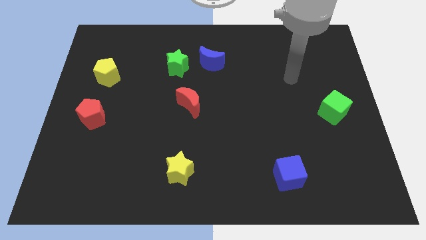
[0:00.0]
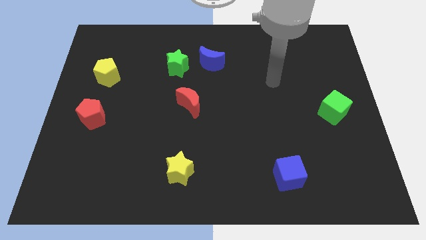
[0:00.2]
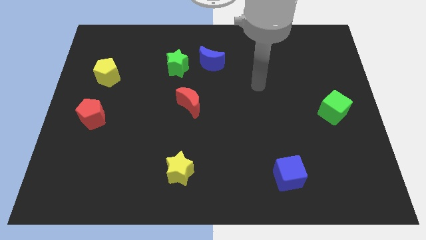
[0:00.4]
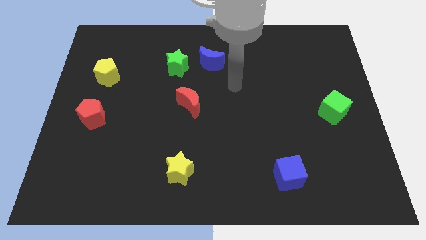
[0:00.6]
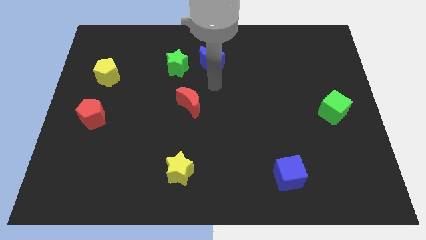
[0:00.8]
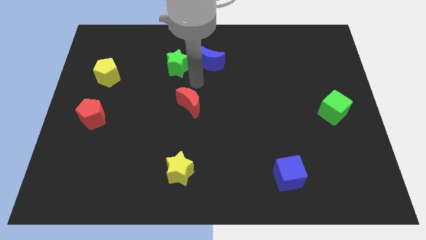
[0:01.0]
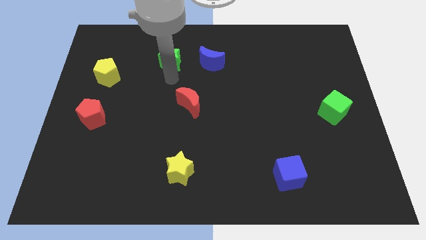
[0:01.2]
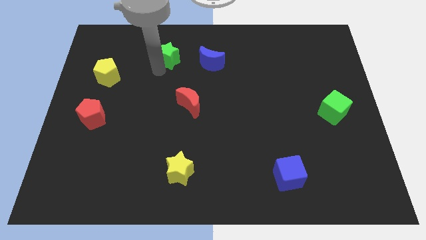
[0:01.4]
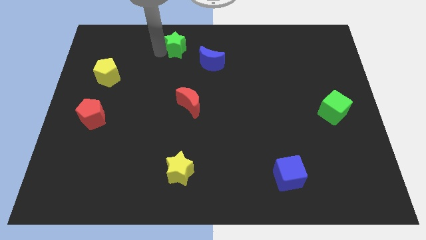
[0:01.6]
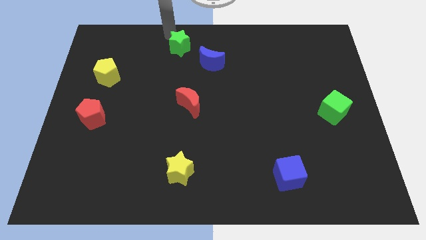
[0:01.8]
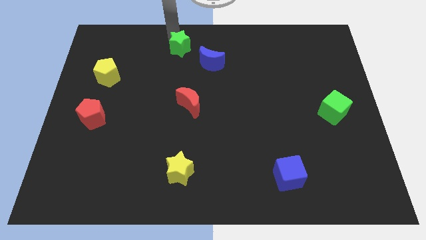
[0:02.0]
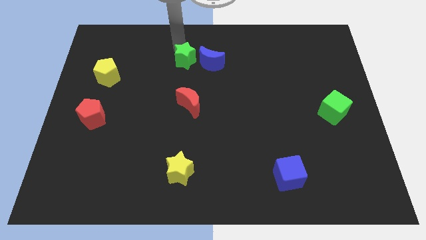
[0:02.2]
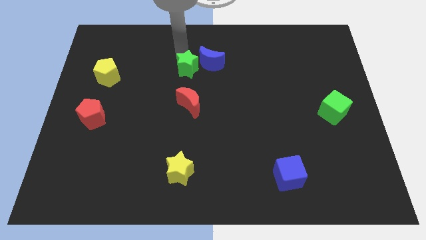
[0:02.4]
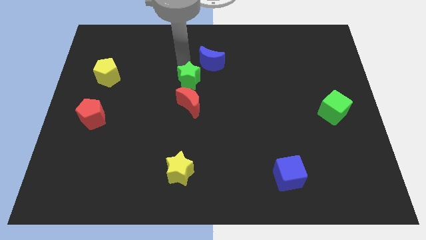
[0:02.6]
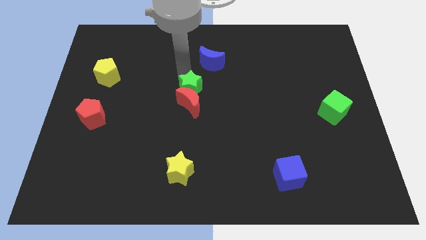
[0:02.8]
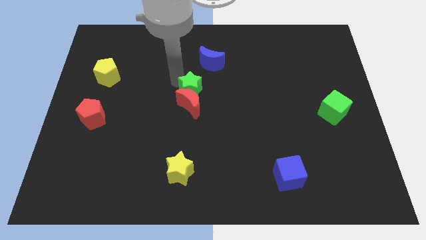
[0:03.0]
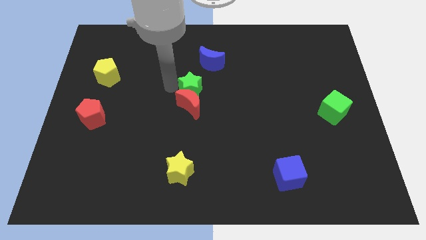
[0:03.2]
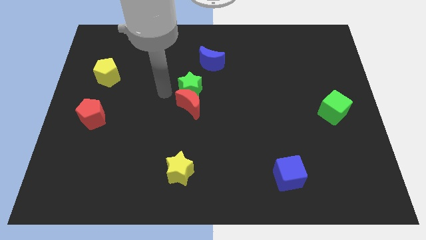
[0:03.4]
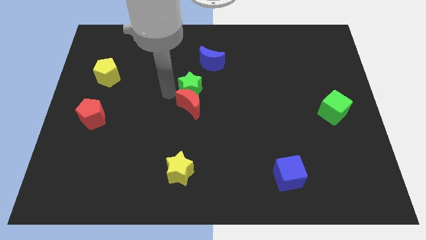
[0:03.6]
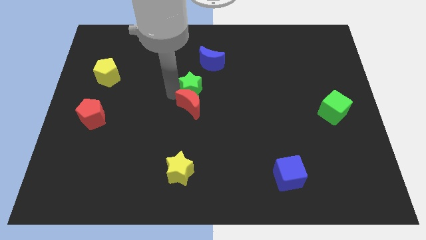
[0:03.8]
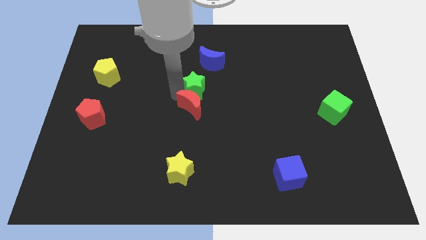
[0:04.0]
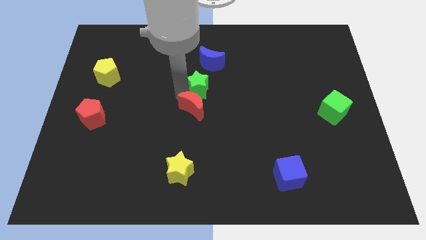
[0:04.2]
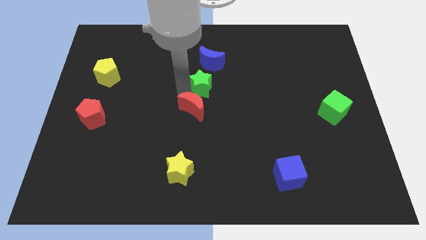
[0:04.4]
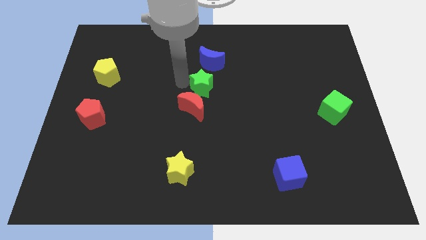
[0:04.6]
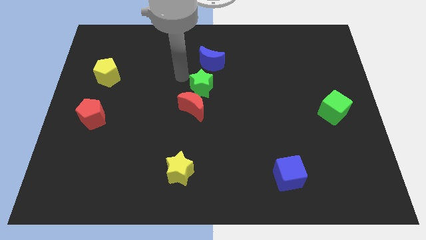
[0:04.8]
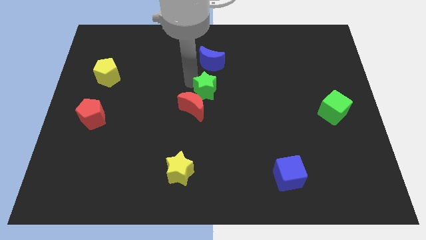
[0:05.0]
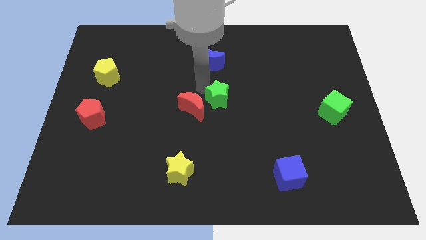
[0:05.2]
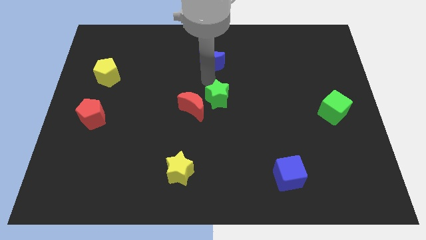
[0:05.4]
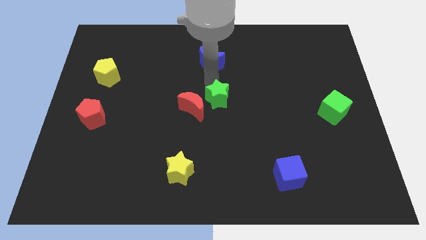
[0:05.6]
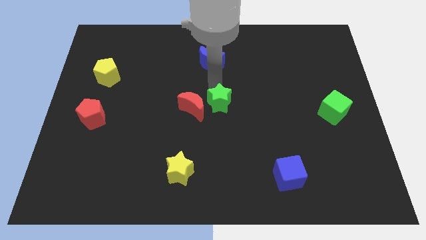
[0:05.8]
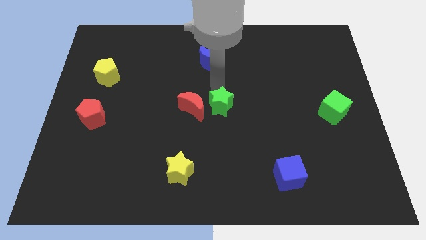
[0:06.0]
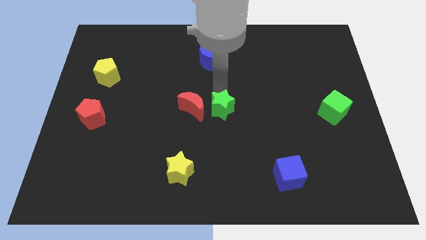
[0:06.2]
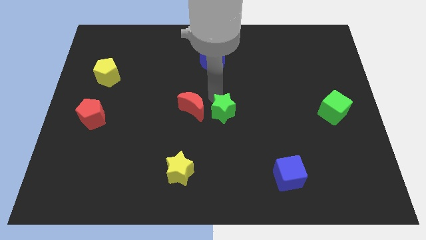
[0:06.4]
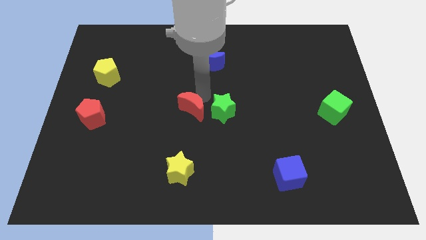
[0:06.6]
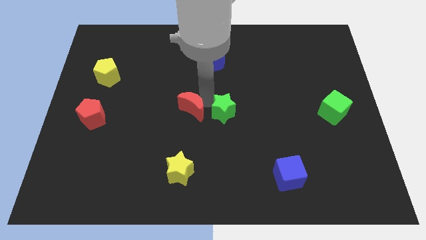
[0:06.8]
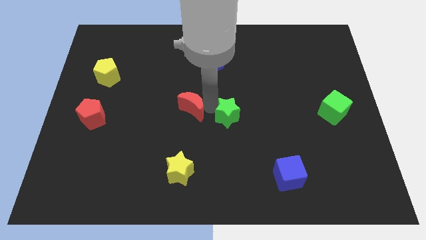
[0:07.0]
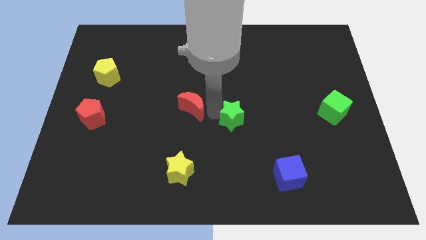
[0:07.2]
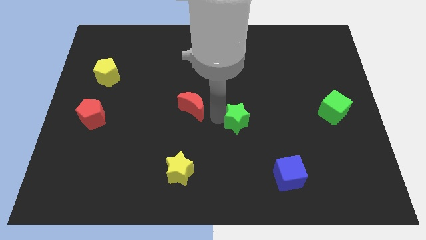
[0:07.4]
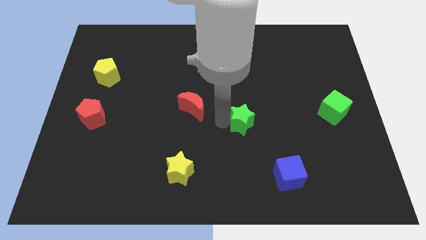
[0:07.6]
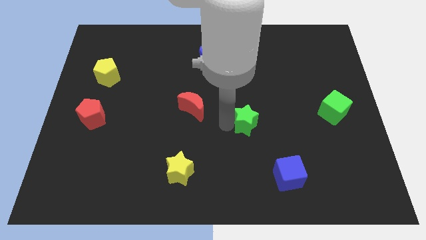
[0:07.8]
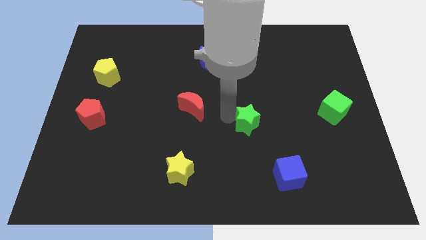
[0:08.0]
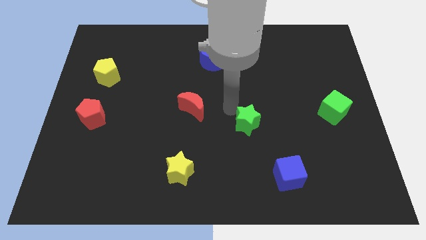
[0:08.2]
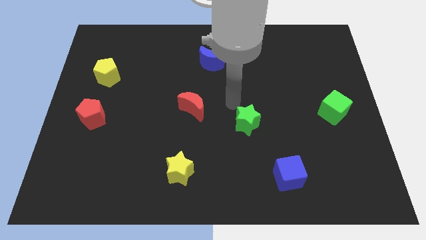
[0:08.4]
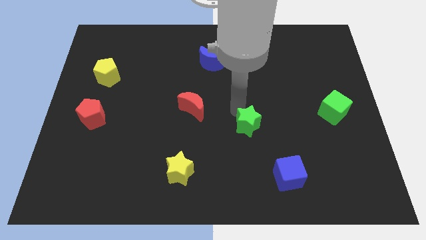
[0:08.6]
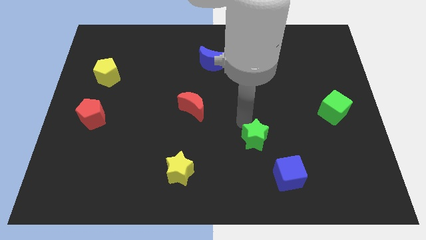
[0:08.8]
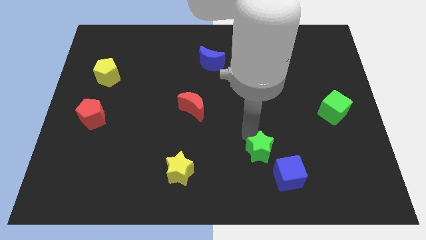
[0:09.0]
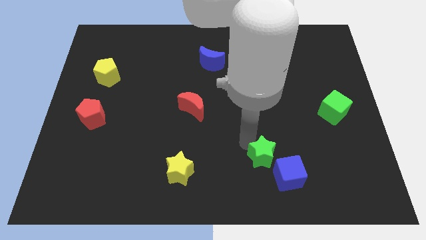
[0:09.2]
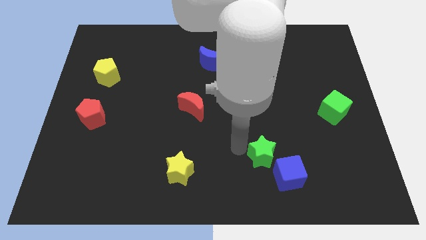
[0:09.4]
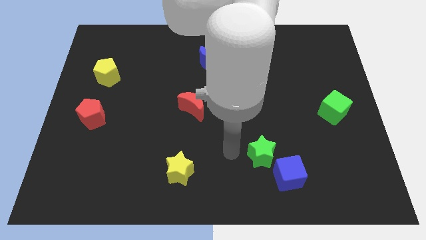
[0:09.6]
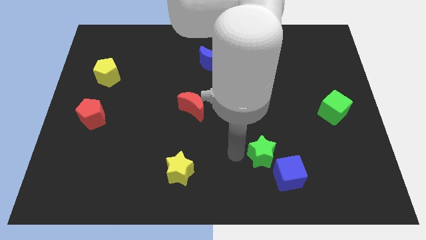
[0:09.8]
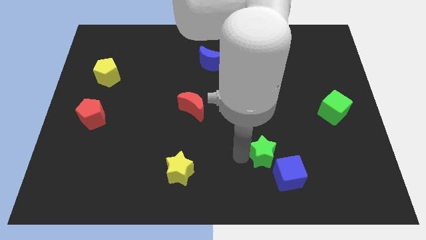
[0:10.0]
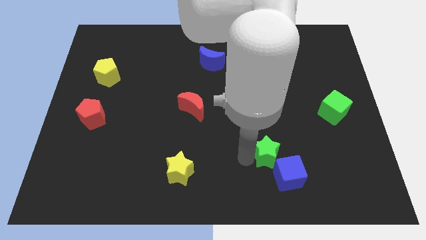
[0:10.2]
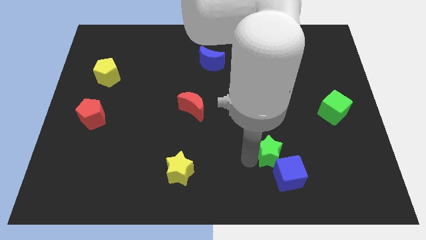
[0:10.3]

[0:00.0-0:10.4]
put the green star towards the blue cube

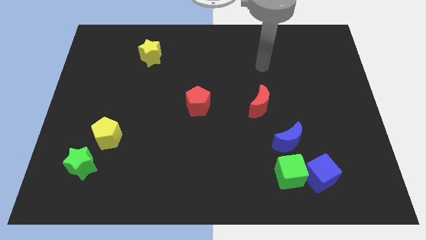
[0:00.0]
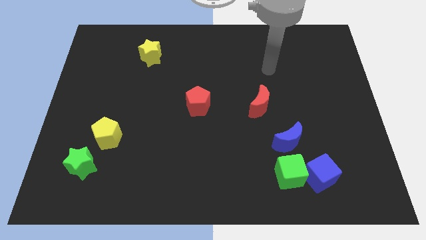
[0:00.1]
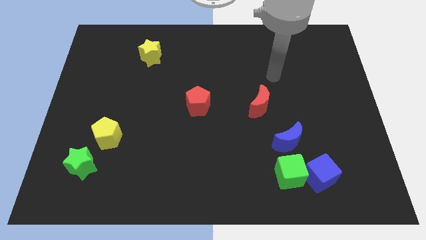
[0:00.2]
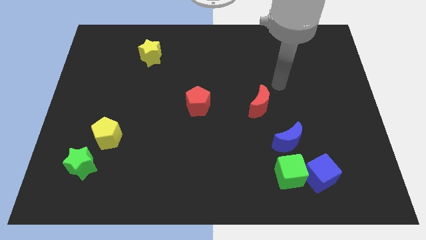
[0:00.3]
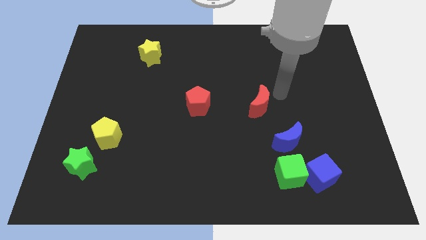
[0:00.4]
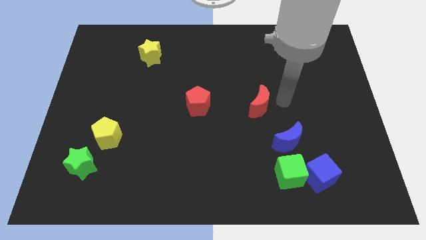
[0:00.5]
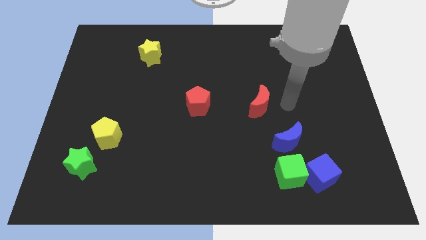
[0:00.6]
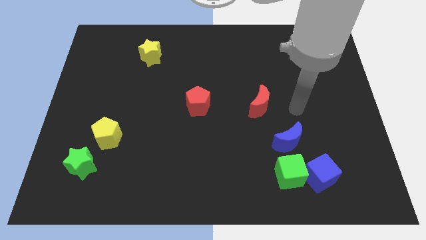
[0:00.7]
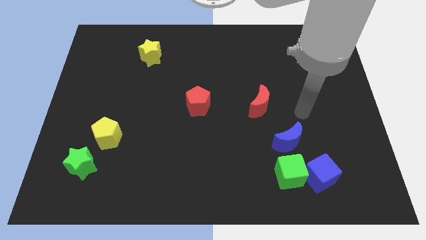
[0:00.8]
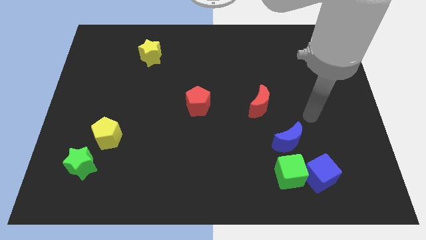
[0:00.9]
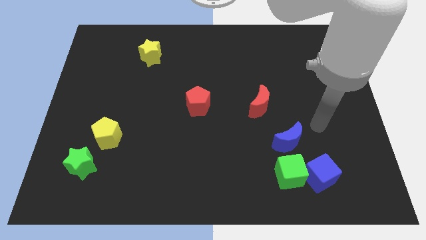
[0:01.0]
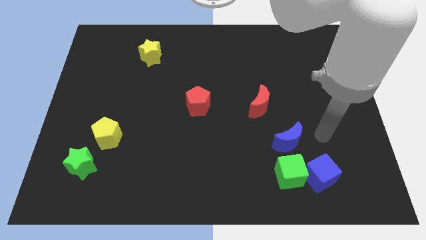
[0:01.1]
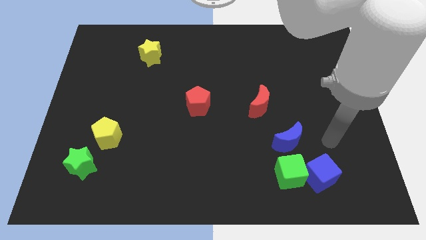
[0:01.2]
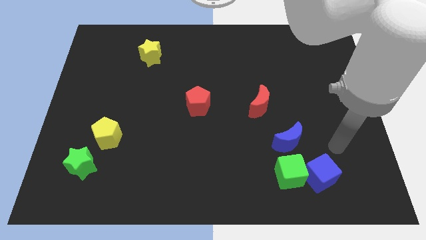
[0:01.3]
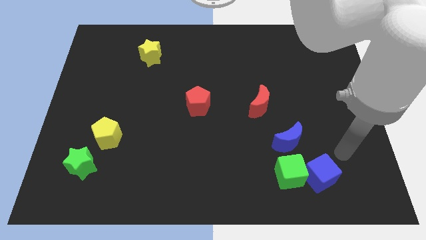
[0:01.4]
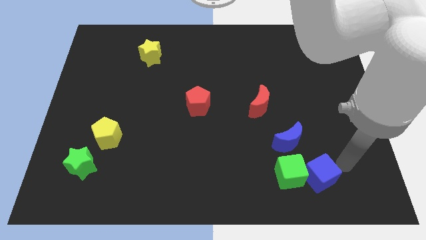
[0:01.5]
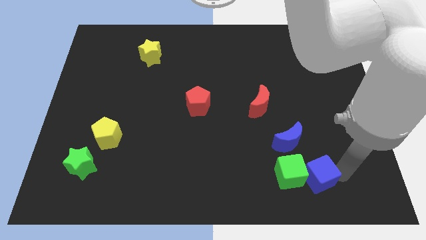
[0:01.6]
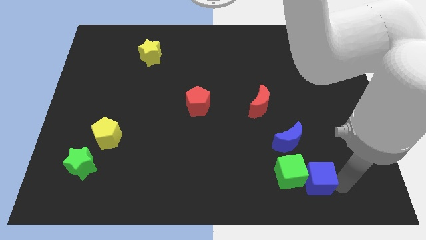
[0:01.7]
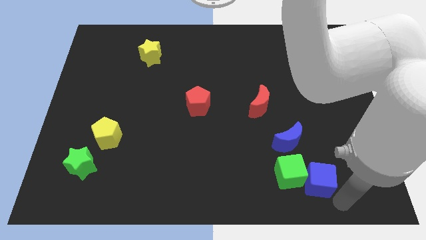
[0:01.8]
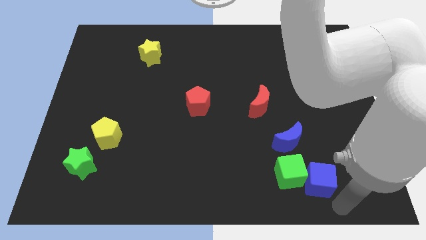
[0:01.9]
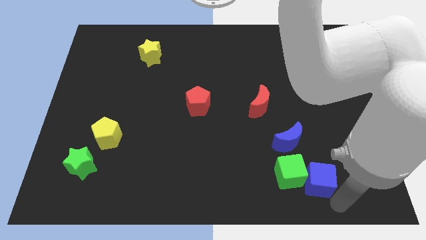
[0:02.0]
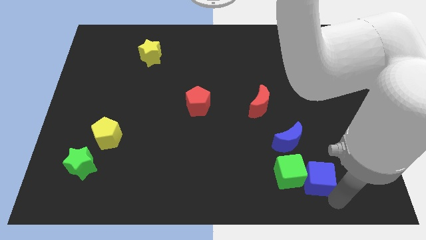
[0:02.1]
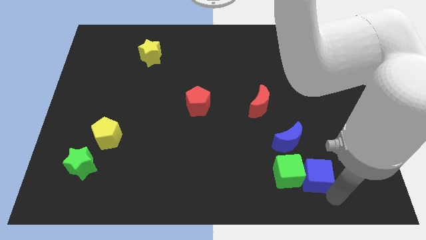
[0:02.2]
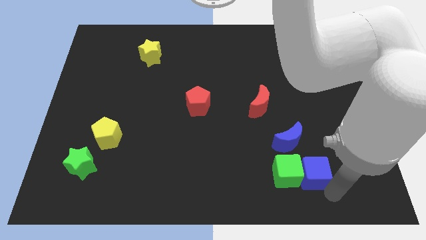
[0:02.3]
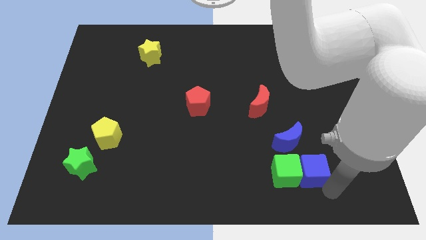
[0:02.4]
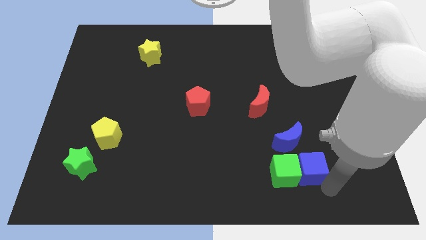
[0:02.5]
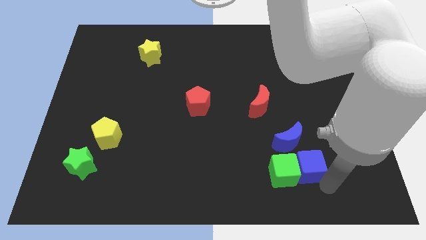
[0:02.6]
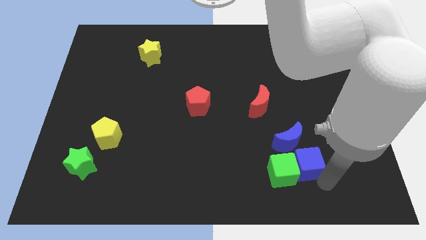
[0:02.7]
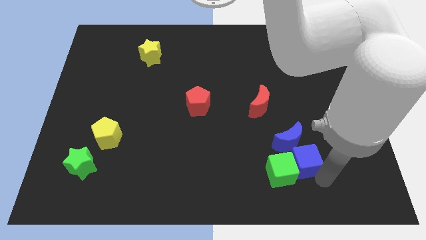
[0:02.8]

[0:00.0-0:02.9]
slide the blue cube next to the blue moon

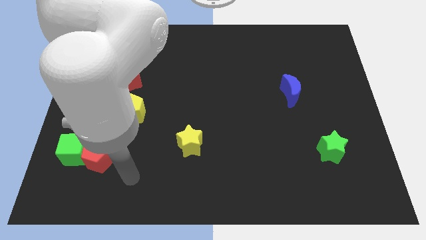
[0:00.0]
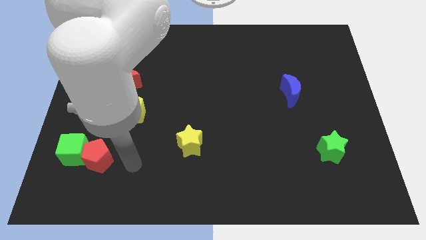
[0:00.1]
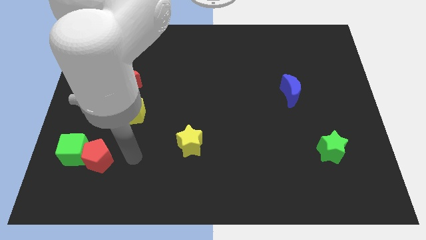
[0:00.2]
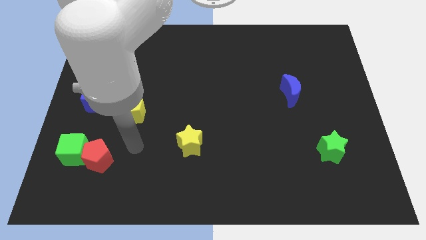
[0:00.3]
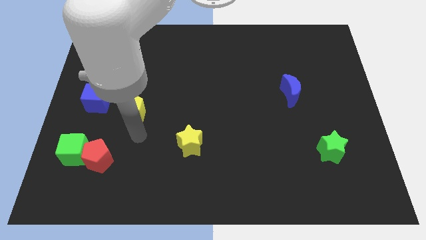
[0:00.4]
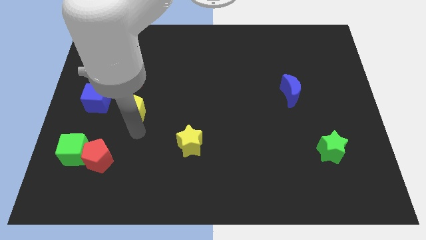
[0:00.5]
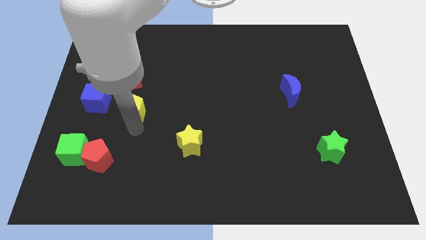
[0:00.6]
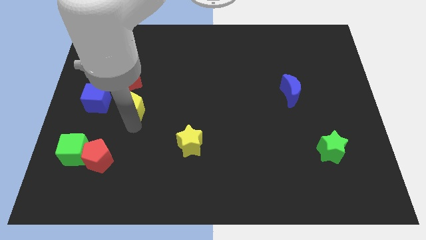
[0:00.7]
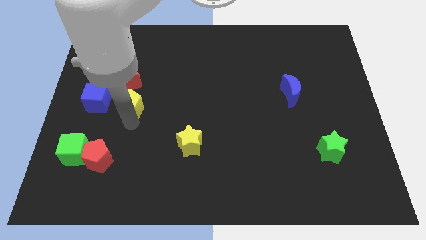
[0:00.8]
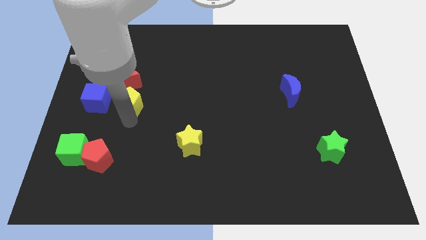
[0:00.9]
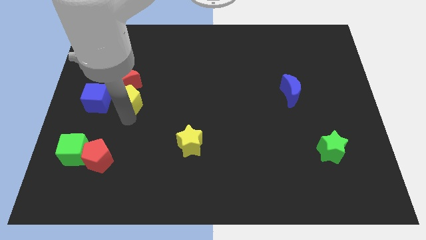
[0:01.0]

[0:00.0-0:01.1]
push the yellow pentagon next to the red moon
